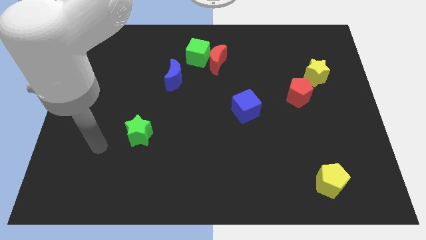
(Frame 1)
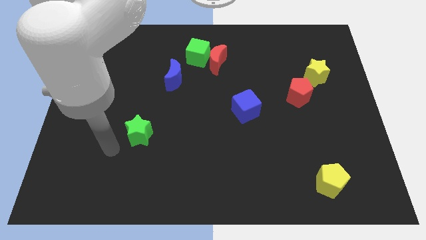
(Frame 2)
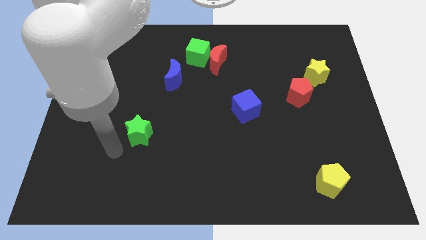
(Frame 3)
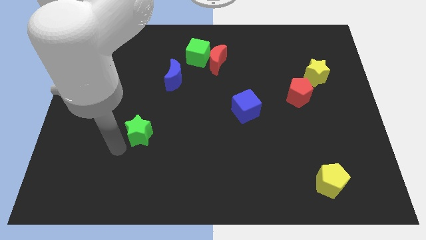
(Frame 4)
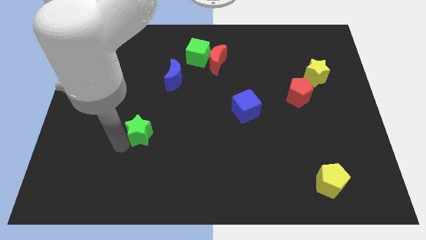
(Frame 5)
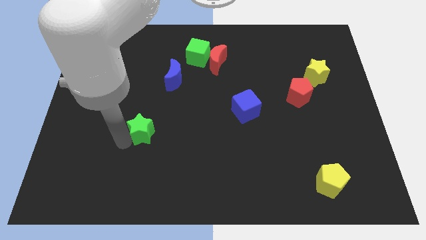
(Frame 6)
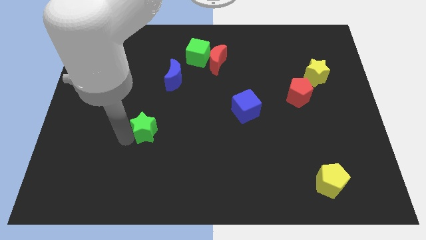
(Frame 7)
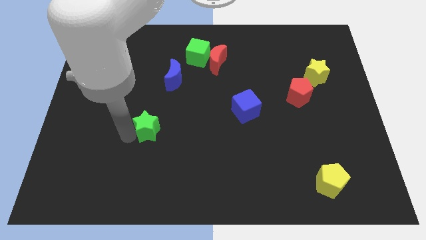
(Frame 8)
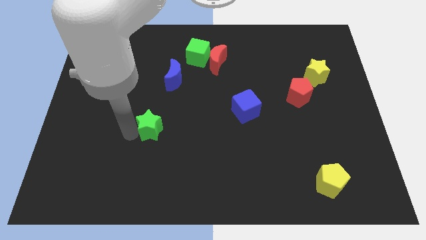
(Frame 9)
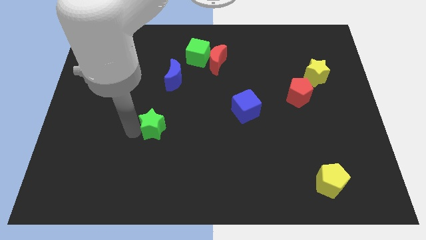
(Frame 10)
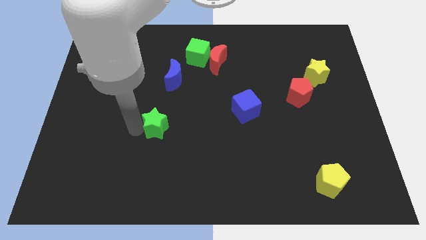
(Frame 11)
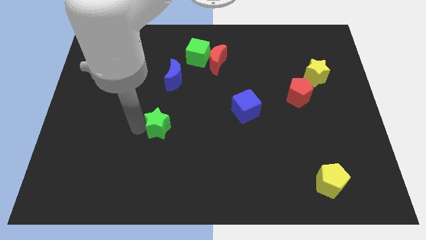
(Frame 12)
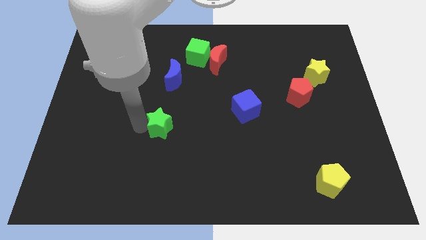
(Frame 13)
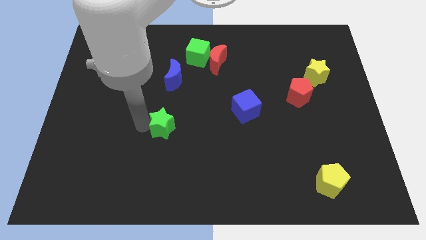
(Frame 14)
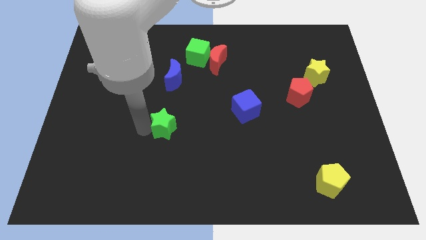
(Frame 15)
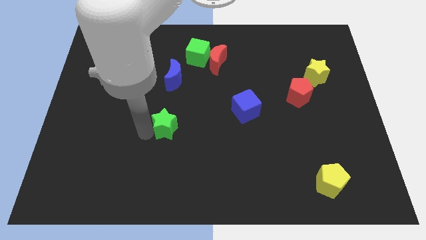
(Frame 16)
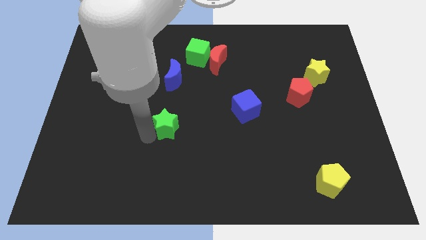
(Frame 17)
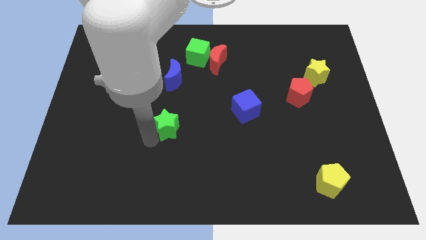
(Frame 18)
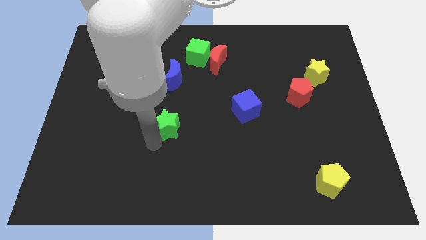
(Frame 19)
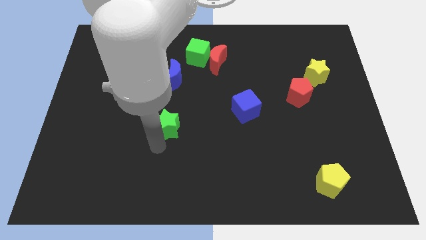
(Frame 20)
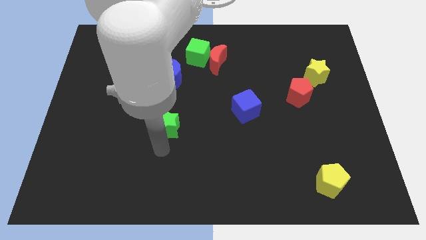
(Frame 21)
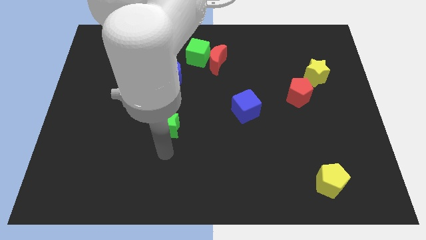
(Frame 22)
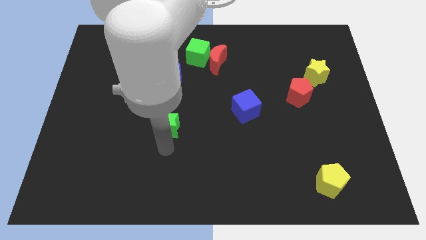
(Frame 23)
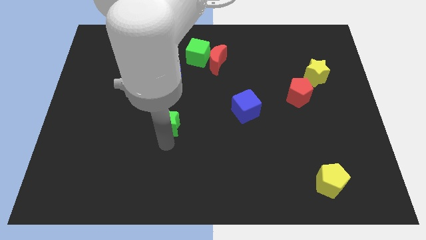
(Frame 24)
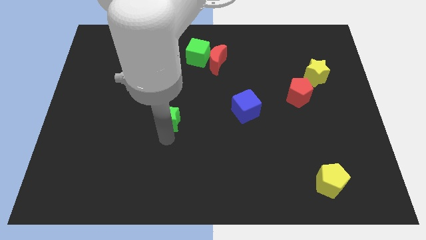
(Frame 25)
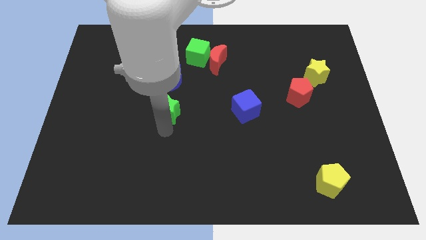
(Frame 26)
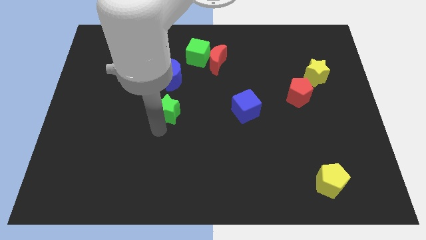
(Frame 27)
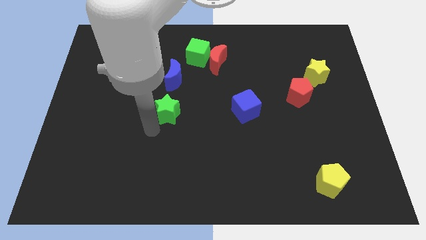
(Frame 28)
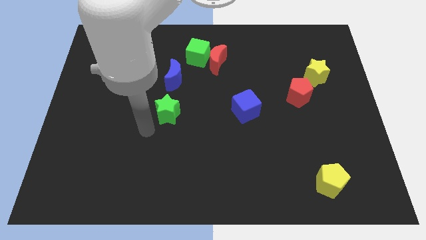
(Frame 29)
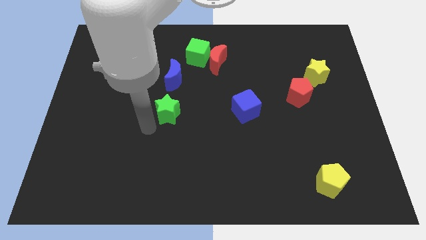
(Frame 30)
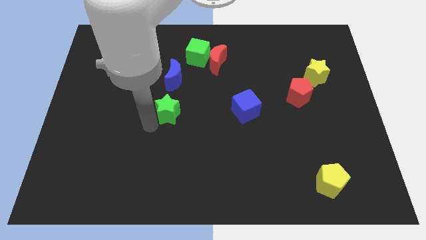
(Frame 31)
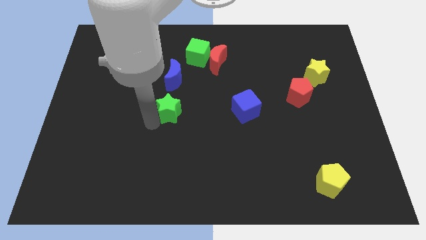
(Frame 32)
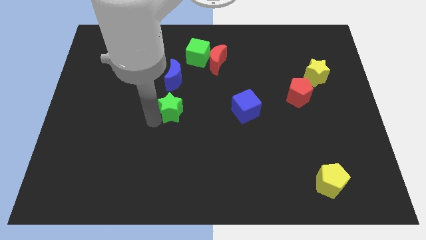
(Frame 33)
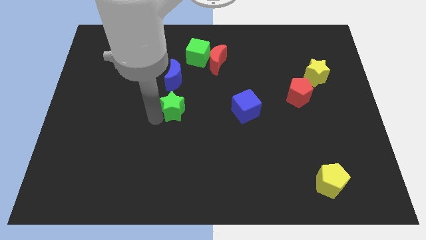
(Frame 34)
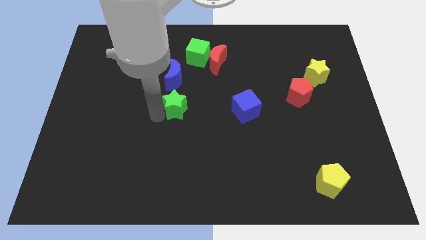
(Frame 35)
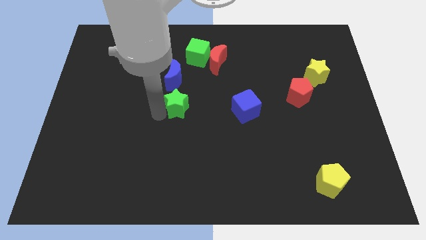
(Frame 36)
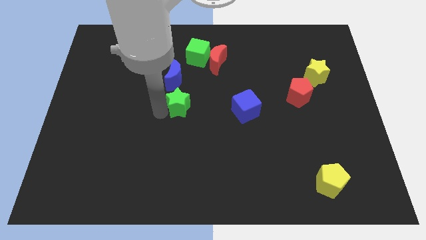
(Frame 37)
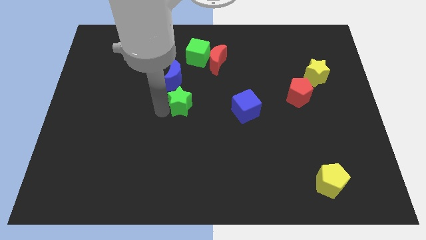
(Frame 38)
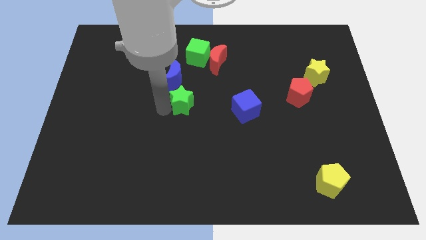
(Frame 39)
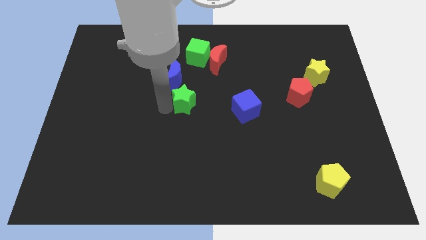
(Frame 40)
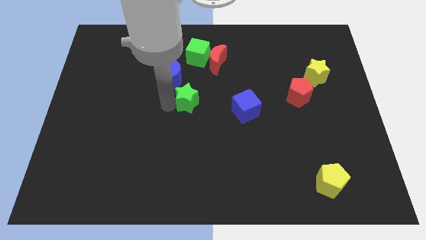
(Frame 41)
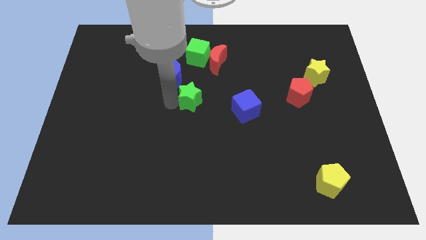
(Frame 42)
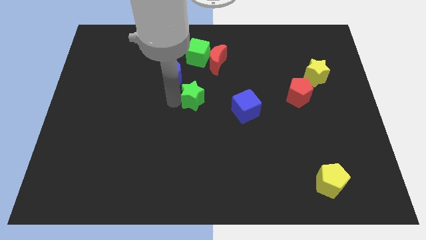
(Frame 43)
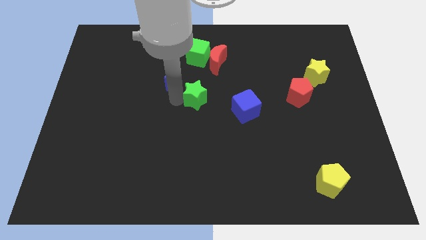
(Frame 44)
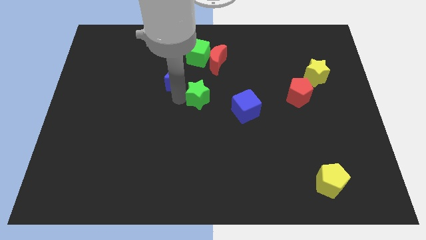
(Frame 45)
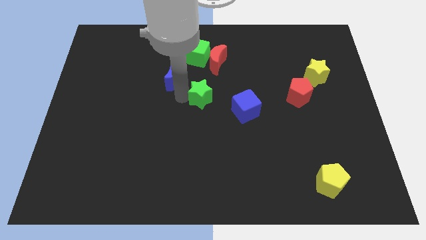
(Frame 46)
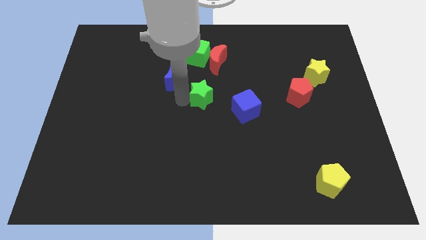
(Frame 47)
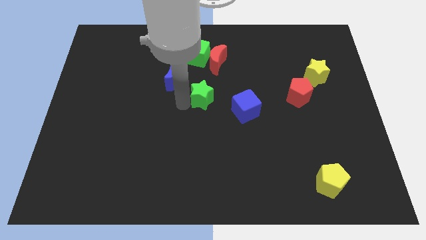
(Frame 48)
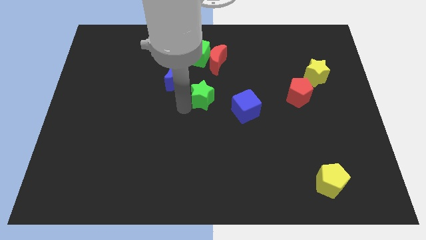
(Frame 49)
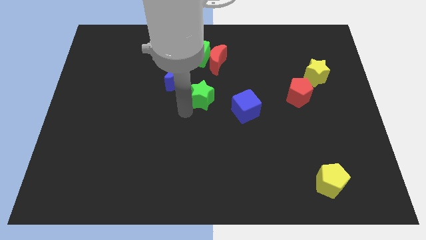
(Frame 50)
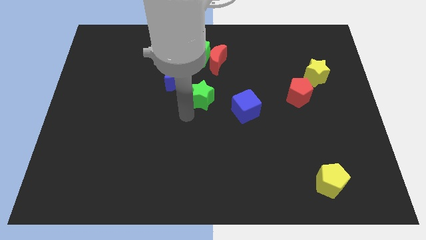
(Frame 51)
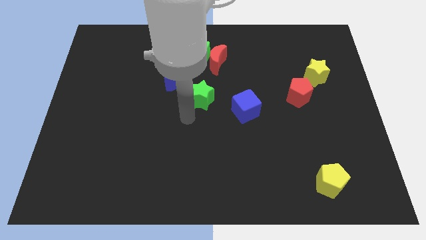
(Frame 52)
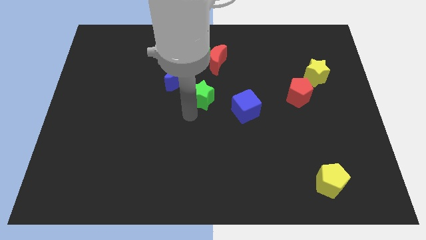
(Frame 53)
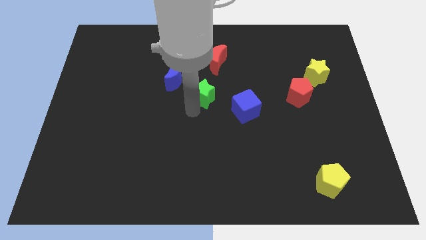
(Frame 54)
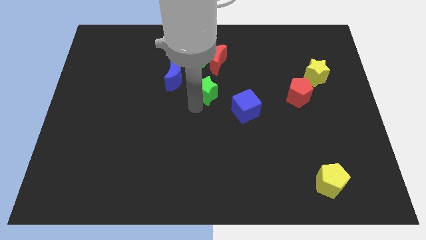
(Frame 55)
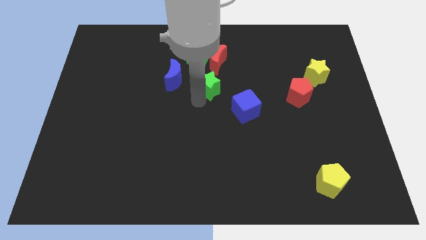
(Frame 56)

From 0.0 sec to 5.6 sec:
push the green star upwards and right diagonally

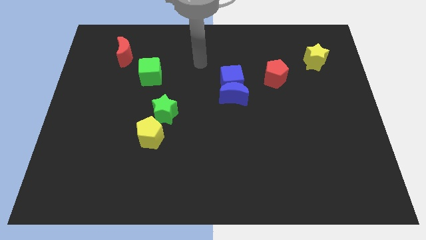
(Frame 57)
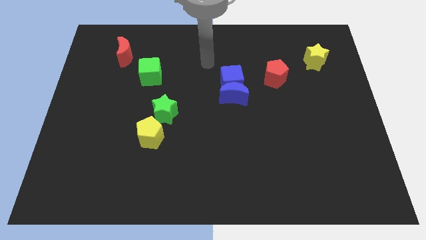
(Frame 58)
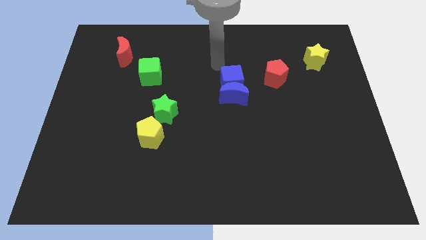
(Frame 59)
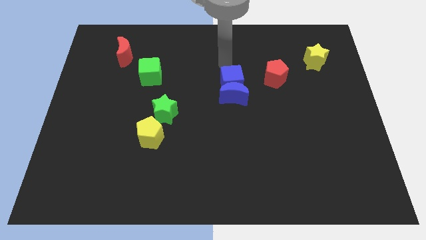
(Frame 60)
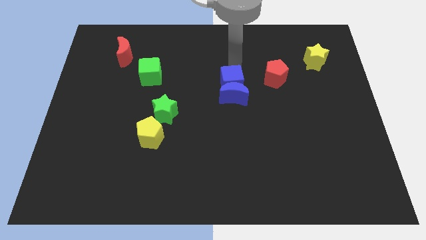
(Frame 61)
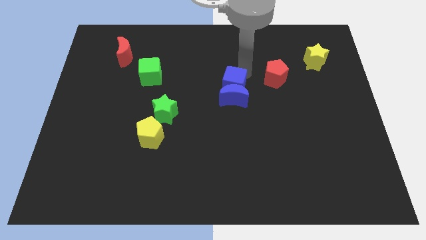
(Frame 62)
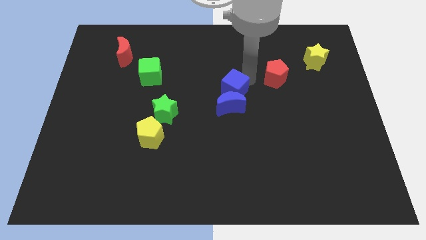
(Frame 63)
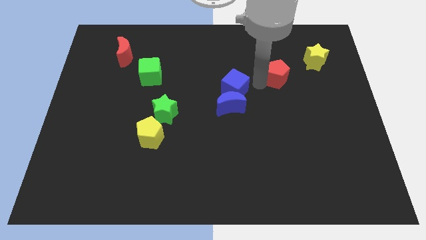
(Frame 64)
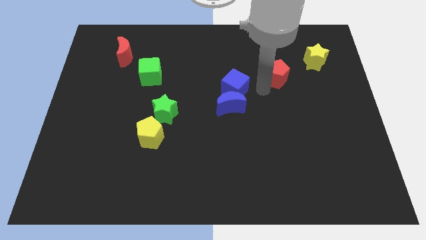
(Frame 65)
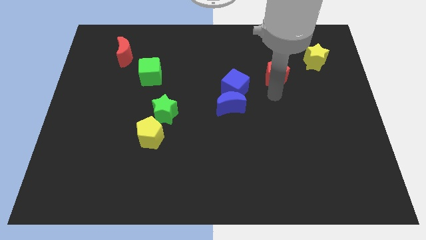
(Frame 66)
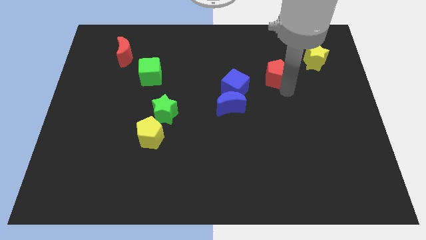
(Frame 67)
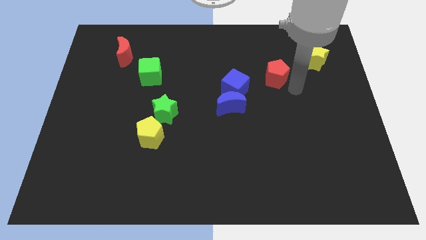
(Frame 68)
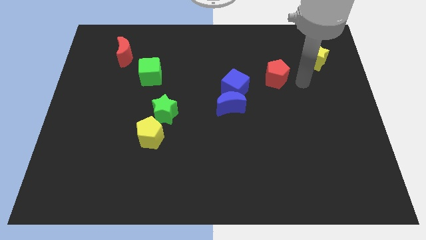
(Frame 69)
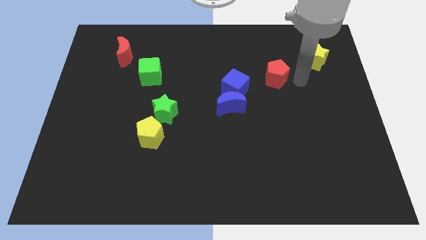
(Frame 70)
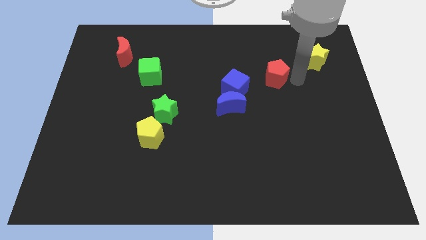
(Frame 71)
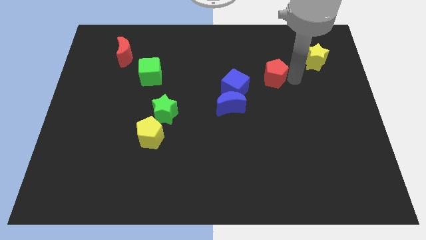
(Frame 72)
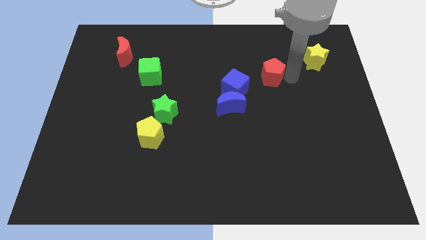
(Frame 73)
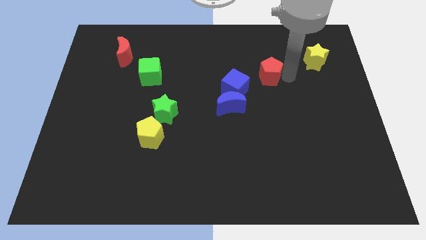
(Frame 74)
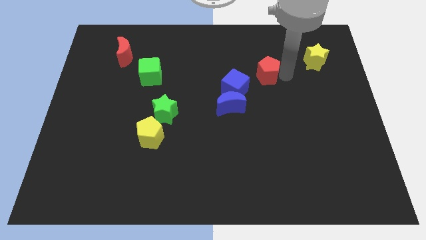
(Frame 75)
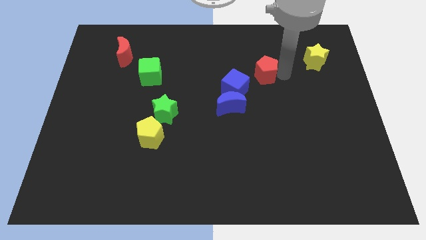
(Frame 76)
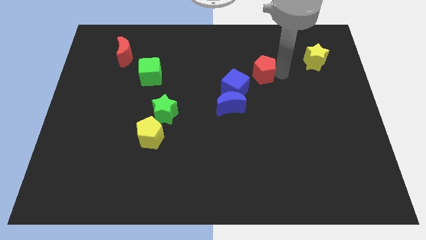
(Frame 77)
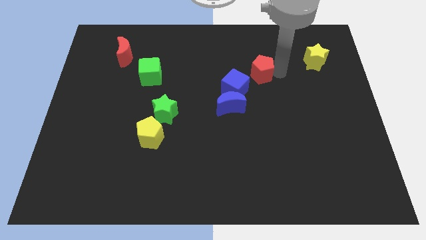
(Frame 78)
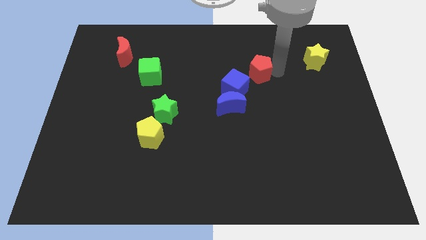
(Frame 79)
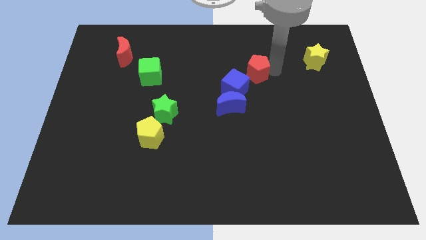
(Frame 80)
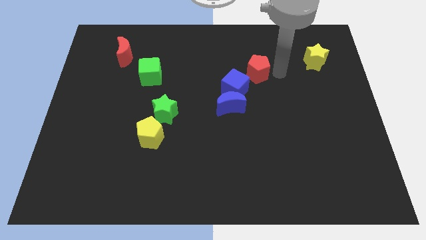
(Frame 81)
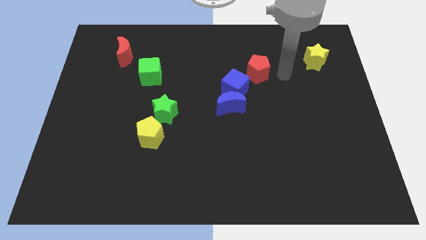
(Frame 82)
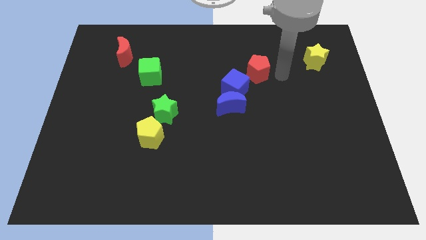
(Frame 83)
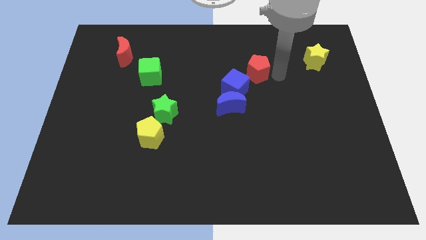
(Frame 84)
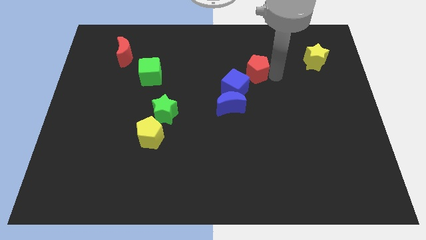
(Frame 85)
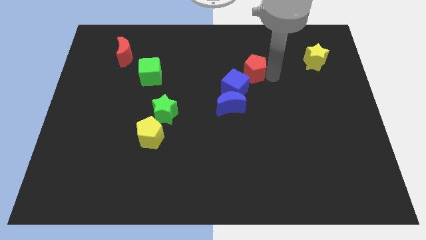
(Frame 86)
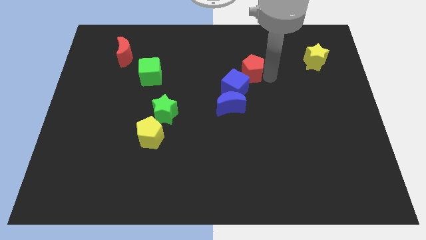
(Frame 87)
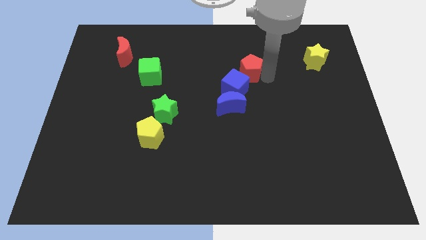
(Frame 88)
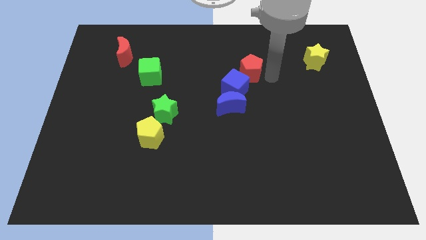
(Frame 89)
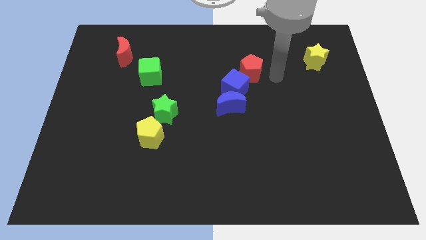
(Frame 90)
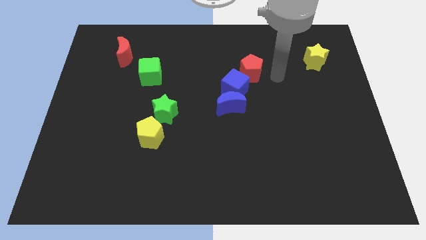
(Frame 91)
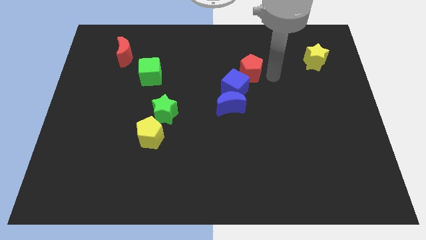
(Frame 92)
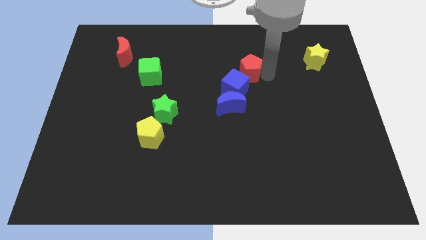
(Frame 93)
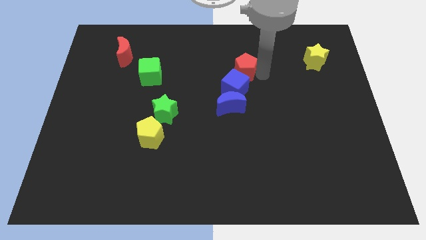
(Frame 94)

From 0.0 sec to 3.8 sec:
move the red pentagon a bit left
